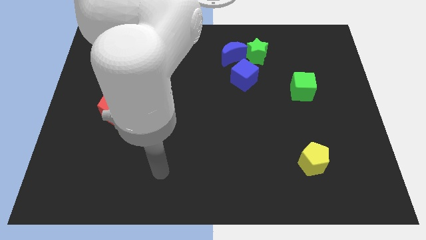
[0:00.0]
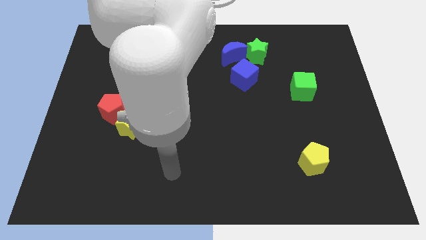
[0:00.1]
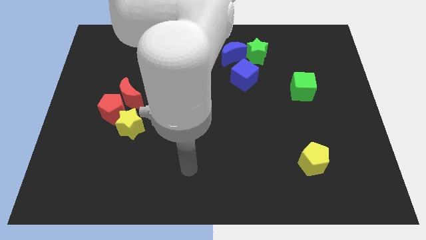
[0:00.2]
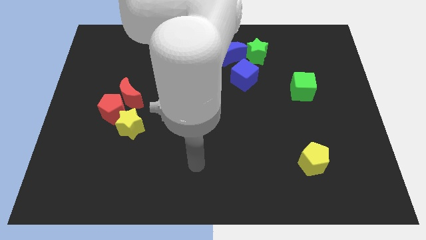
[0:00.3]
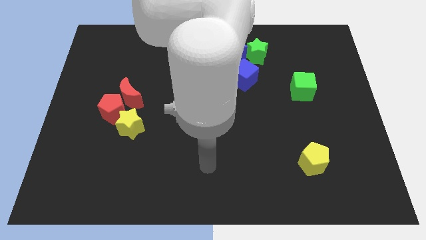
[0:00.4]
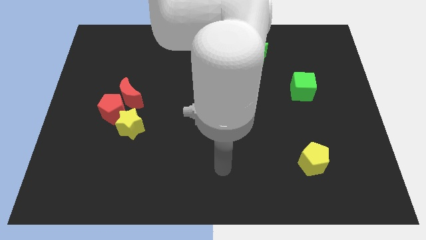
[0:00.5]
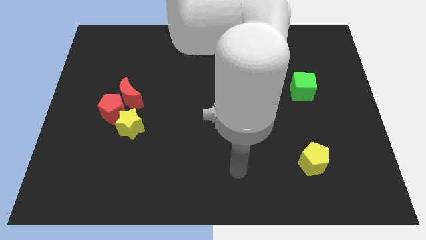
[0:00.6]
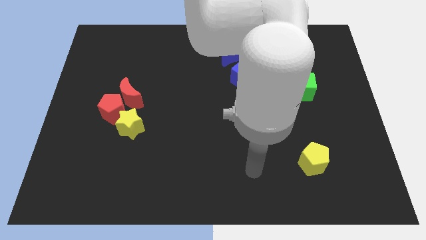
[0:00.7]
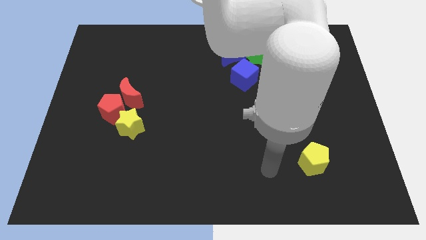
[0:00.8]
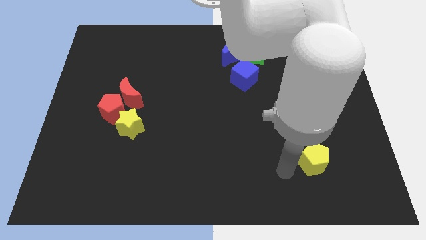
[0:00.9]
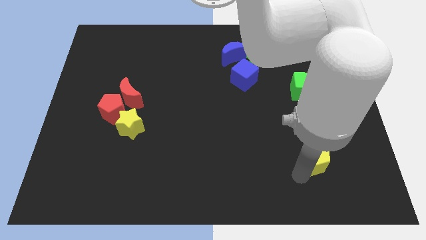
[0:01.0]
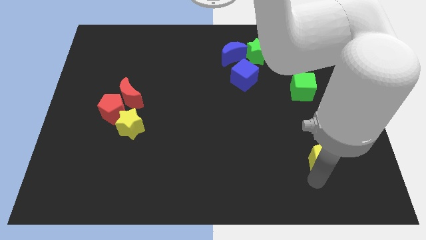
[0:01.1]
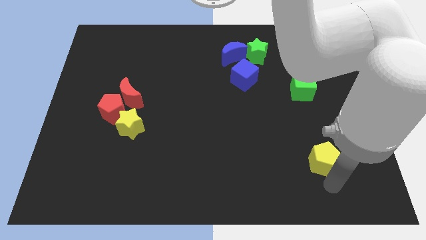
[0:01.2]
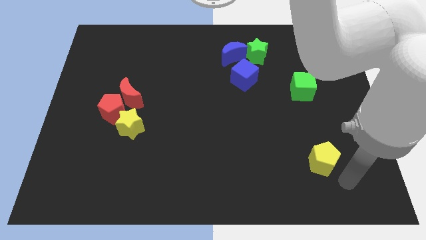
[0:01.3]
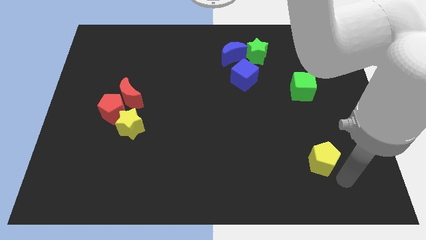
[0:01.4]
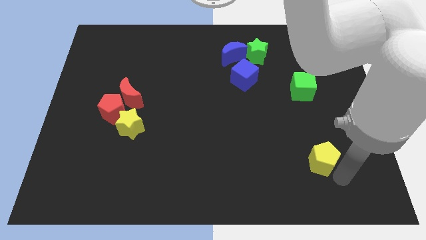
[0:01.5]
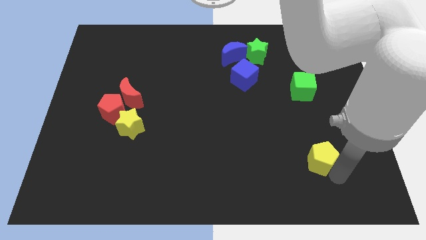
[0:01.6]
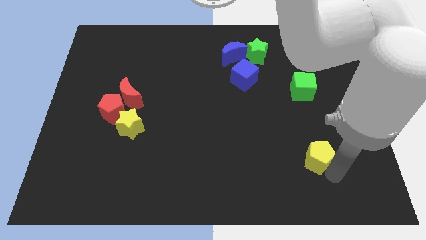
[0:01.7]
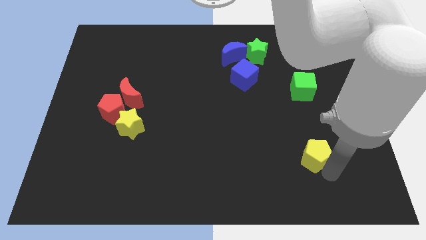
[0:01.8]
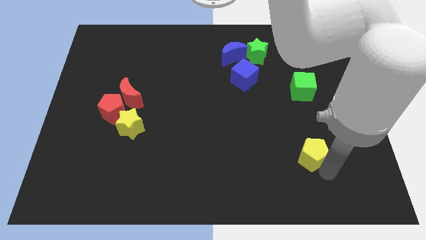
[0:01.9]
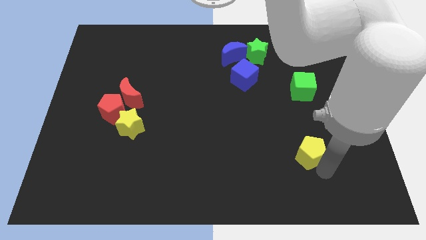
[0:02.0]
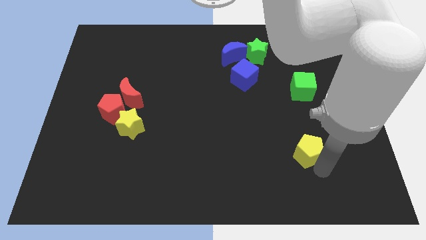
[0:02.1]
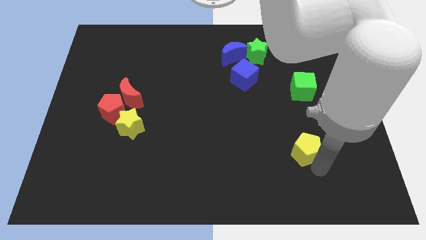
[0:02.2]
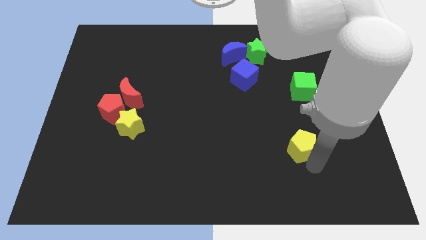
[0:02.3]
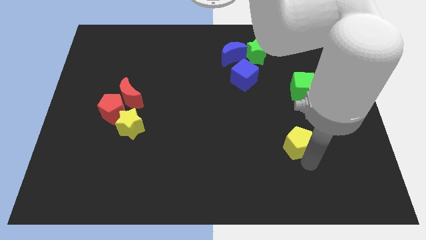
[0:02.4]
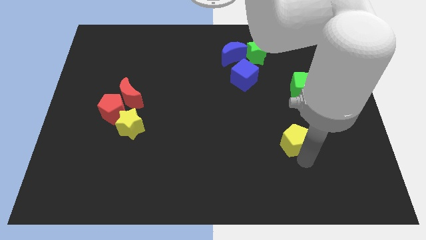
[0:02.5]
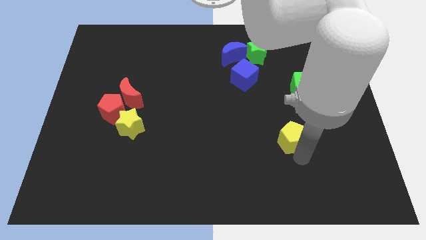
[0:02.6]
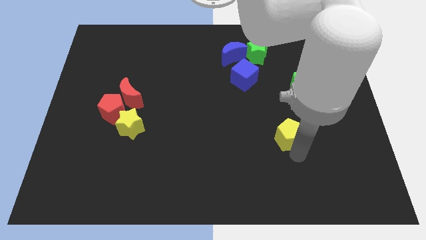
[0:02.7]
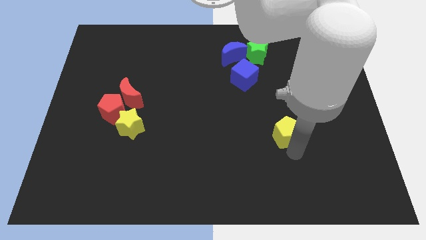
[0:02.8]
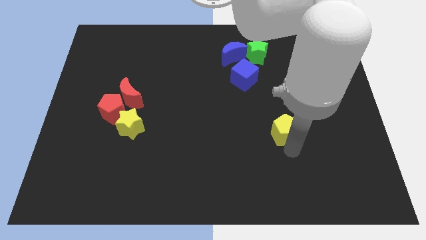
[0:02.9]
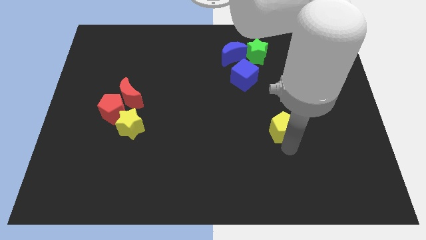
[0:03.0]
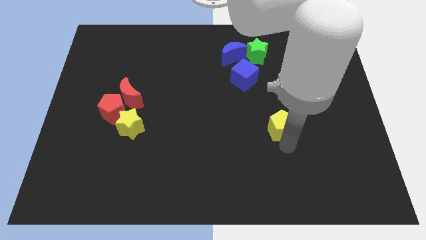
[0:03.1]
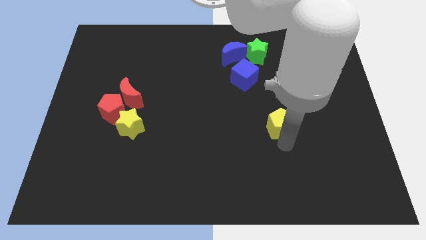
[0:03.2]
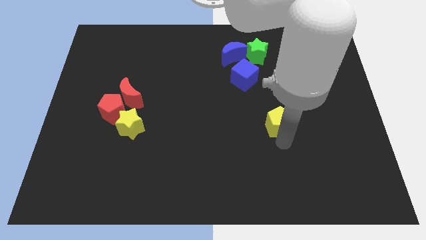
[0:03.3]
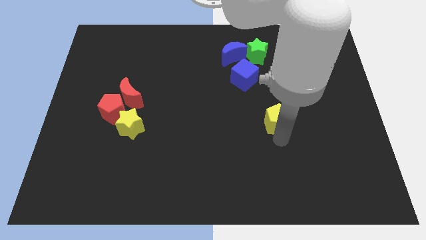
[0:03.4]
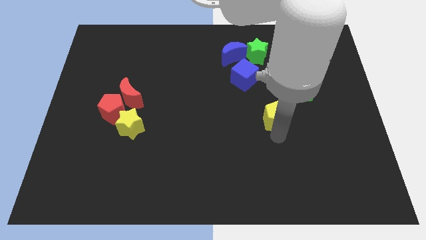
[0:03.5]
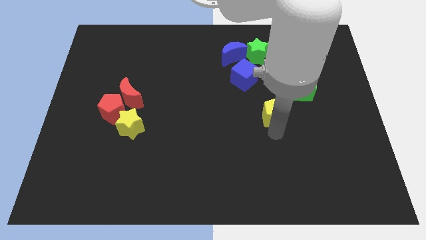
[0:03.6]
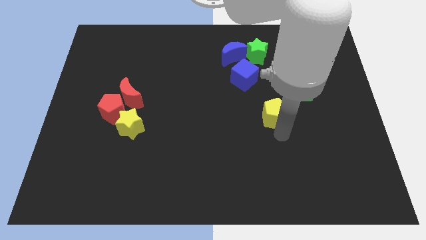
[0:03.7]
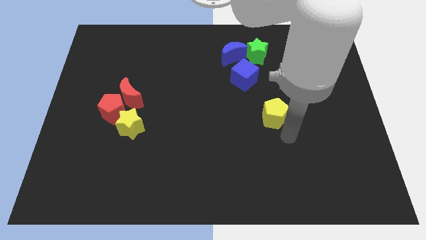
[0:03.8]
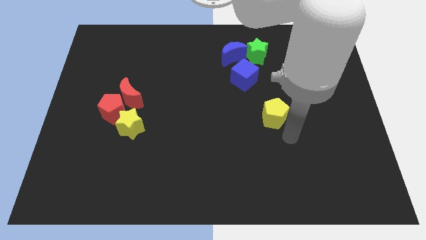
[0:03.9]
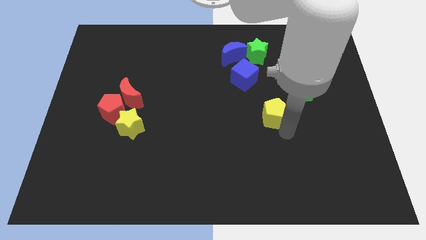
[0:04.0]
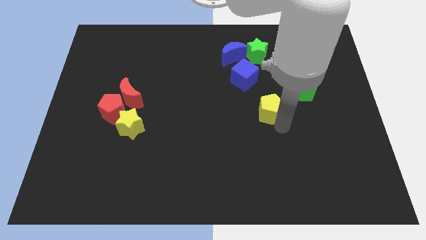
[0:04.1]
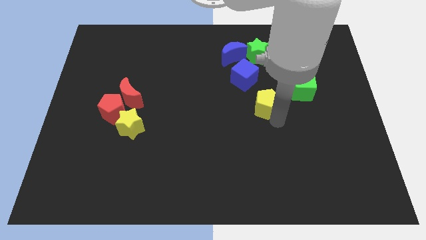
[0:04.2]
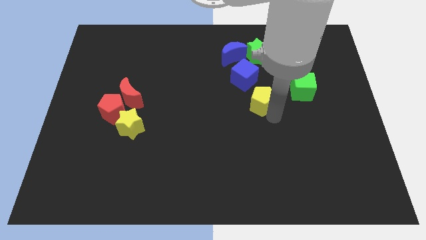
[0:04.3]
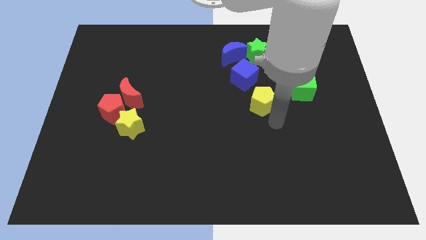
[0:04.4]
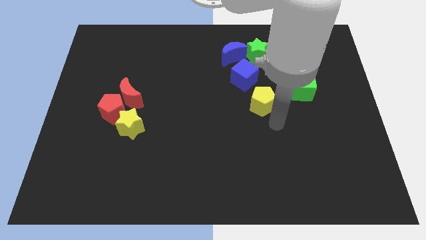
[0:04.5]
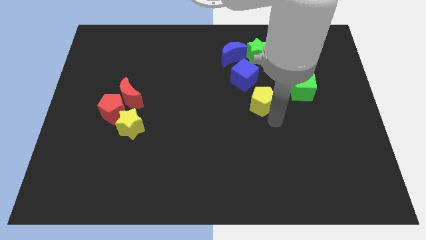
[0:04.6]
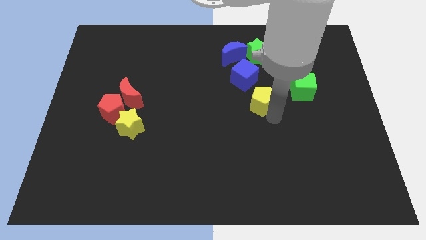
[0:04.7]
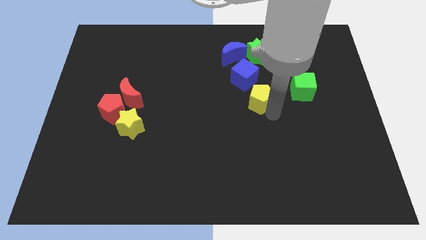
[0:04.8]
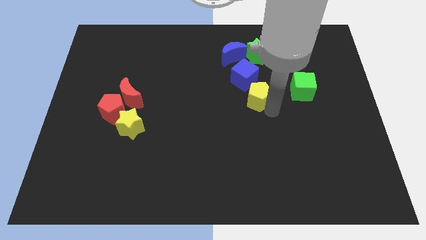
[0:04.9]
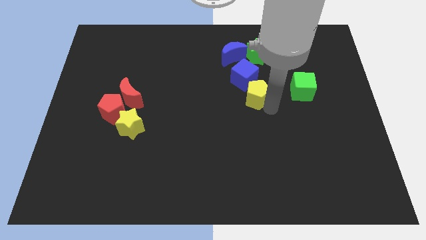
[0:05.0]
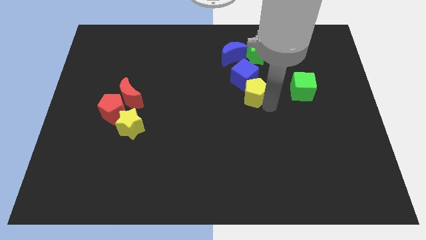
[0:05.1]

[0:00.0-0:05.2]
move the yellow pentagon to the blue cube

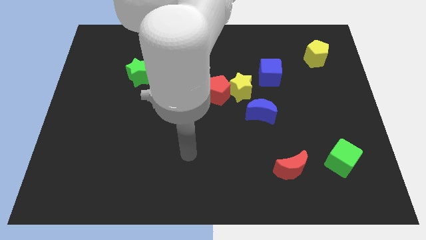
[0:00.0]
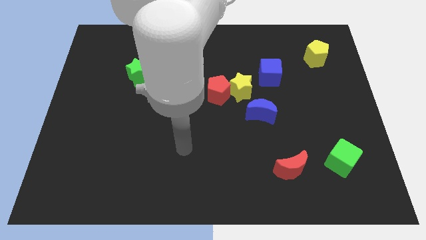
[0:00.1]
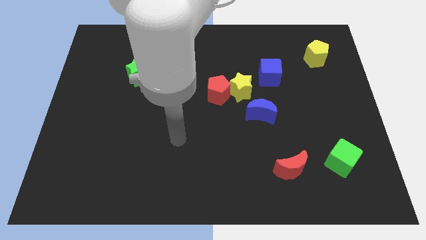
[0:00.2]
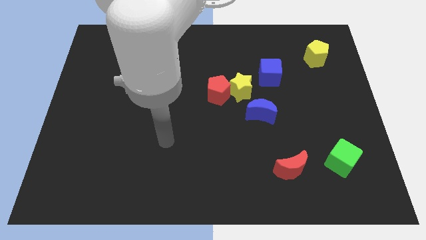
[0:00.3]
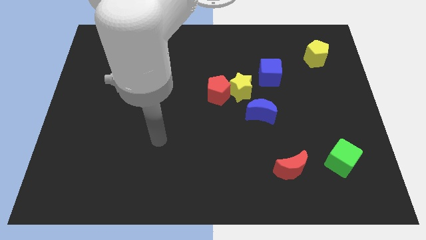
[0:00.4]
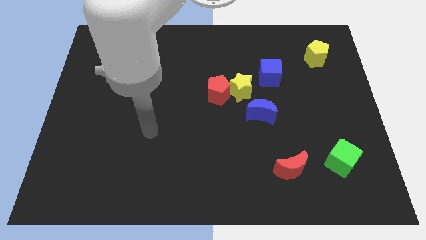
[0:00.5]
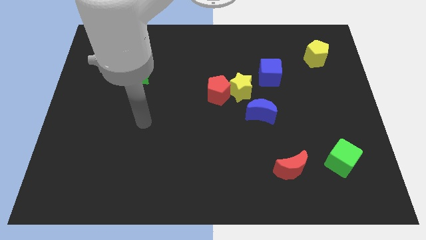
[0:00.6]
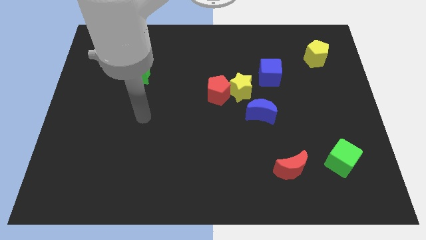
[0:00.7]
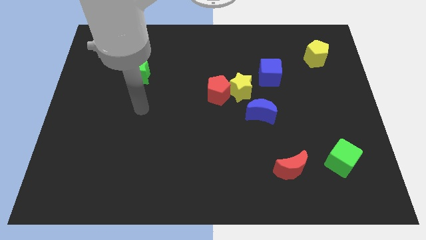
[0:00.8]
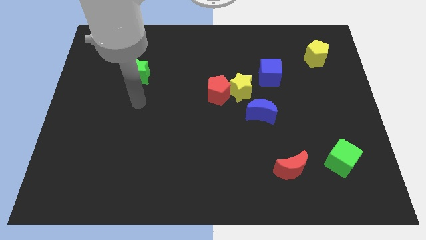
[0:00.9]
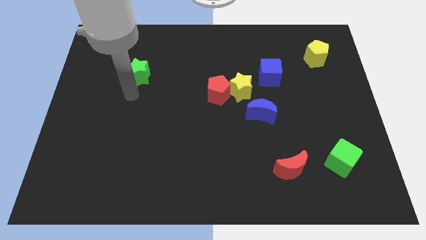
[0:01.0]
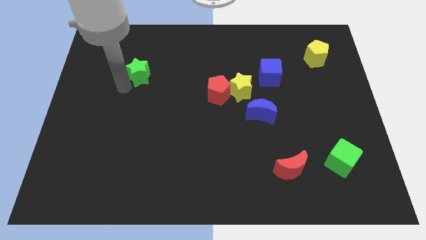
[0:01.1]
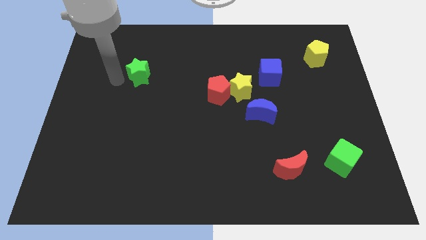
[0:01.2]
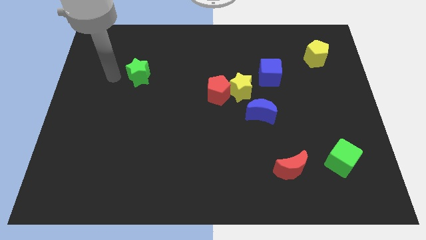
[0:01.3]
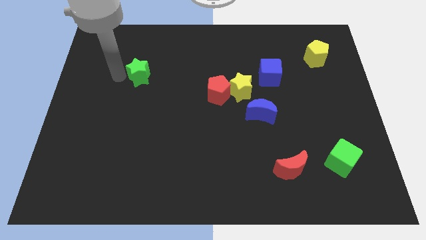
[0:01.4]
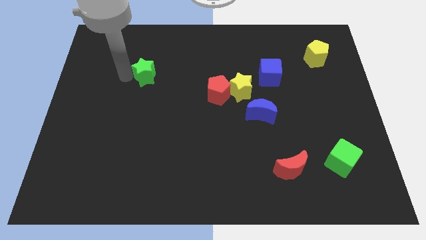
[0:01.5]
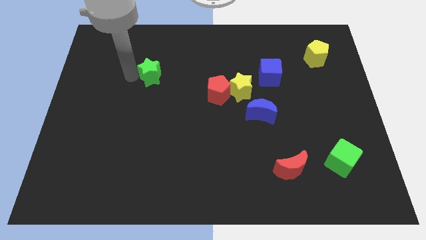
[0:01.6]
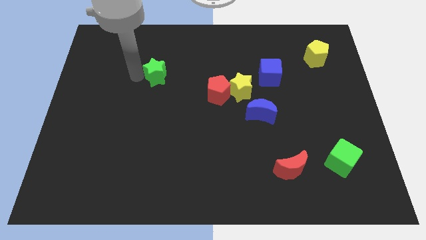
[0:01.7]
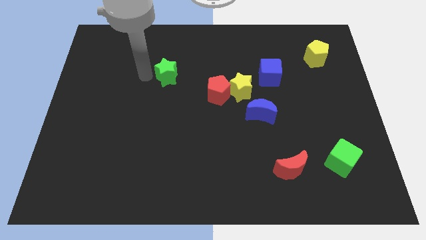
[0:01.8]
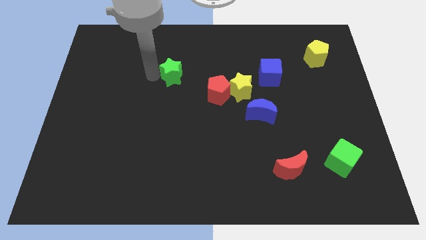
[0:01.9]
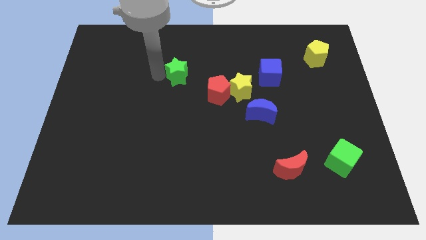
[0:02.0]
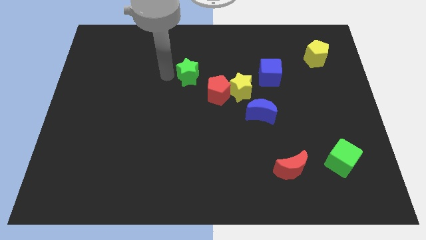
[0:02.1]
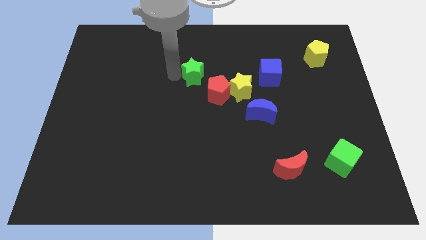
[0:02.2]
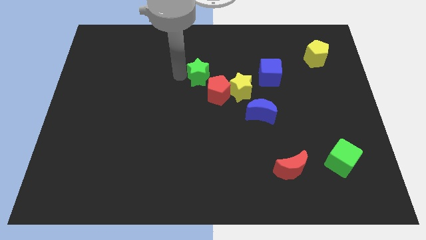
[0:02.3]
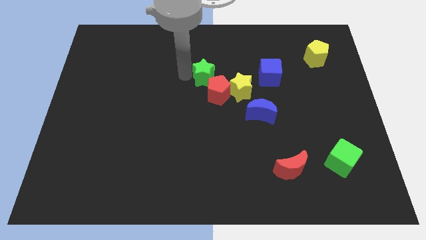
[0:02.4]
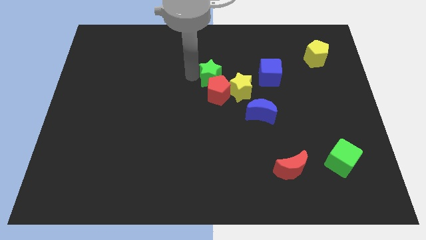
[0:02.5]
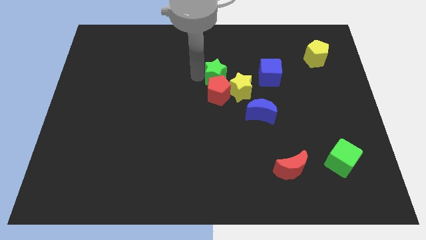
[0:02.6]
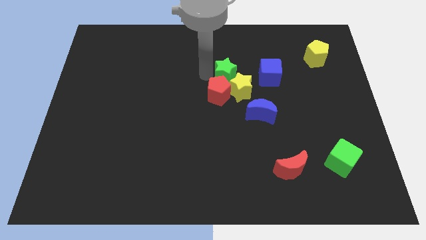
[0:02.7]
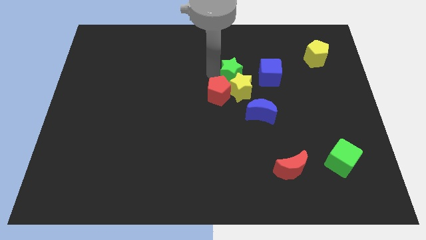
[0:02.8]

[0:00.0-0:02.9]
push the green star to the yellow star
